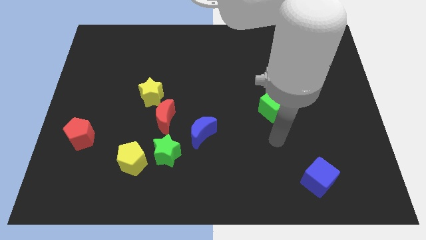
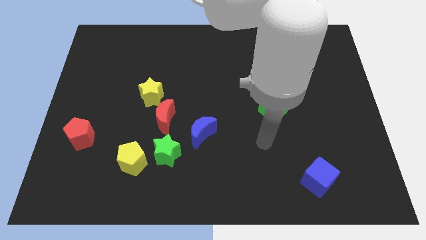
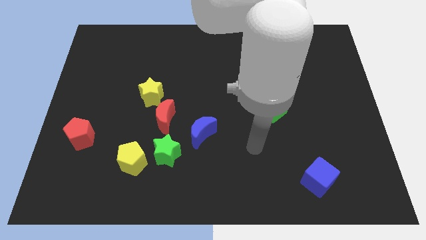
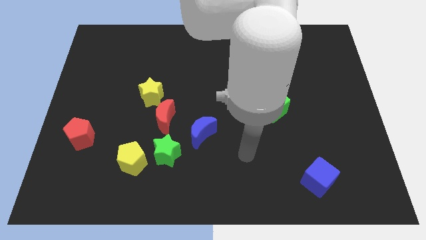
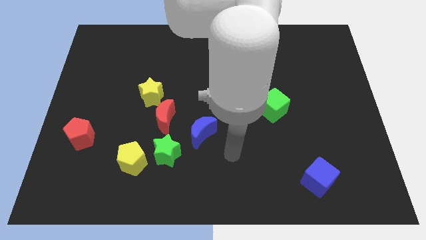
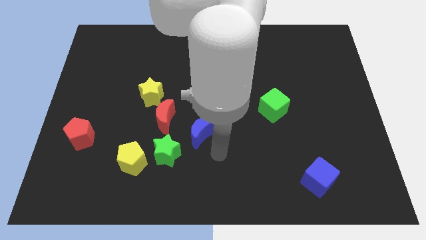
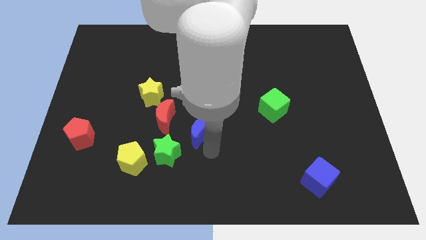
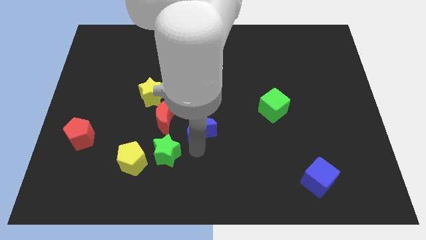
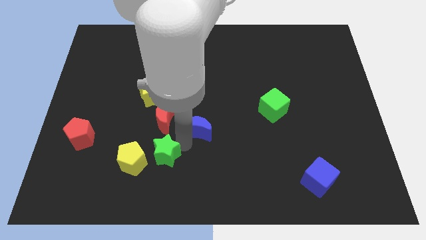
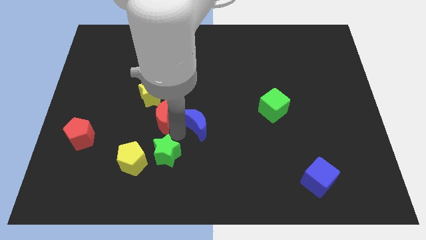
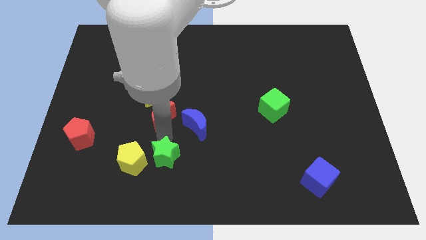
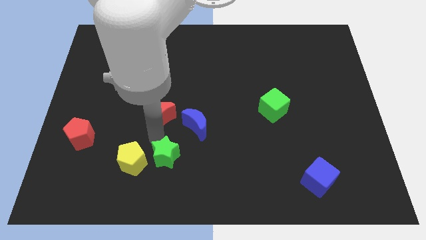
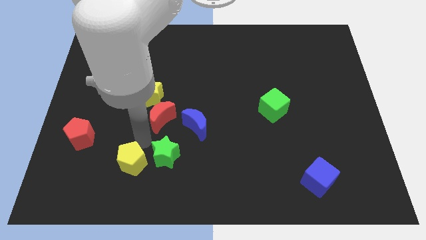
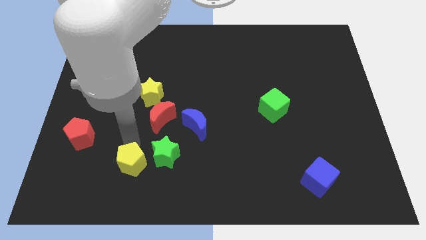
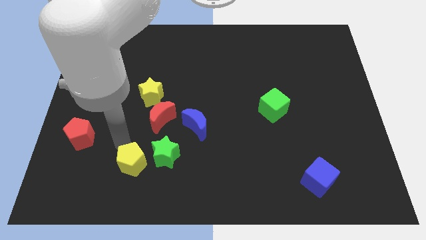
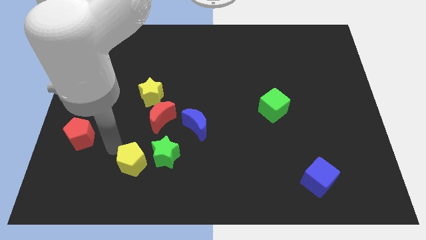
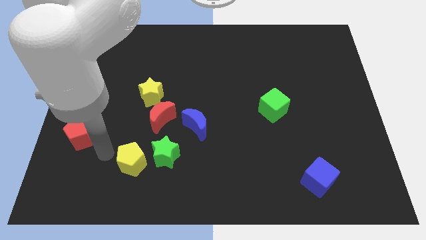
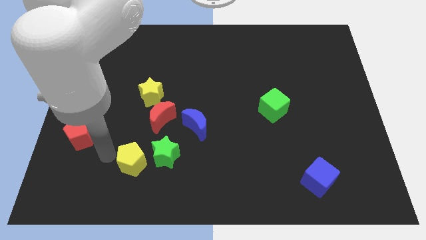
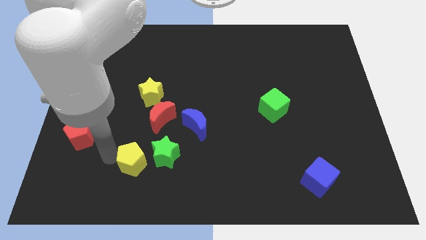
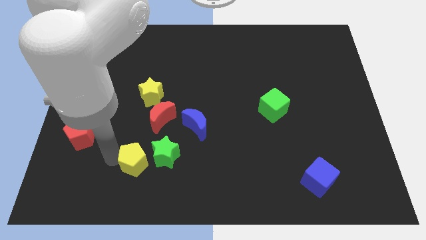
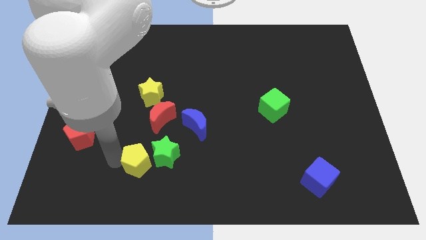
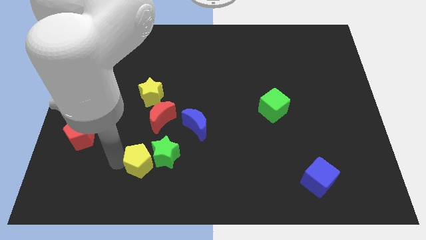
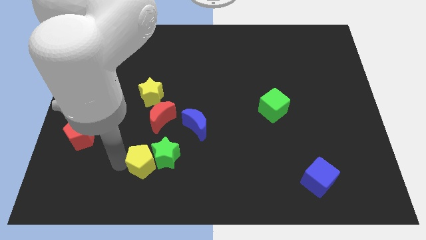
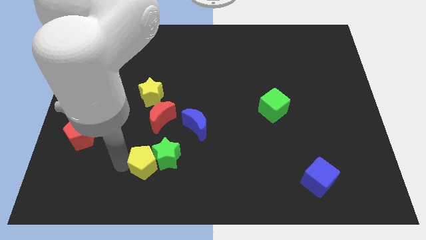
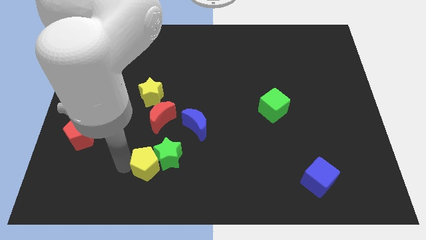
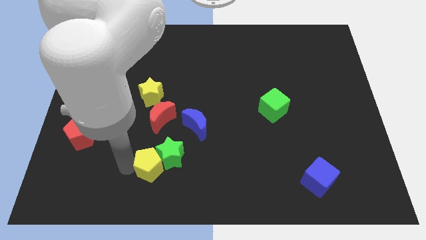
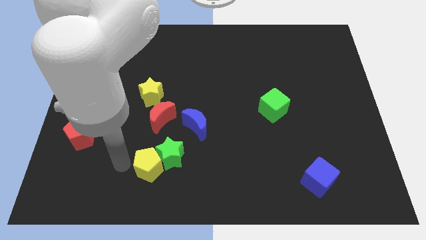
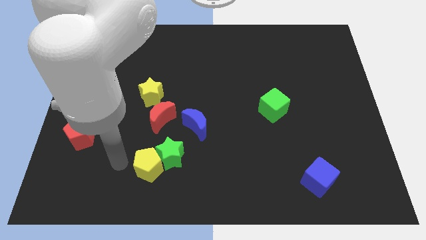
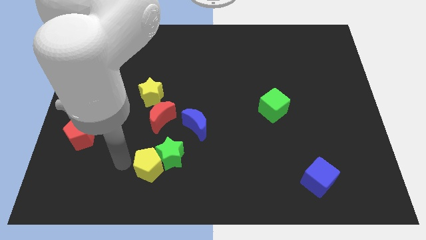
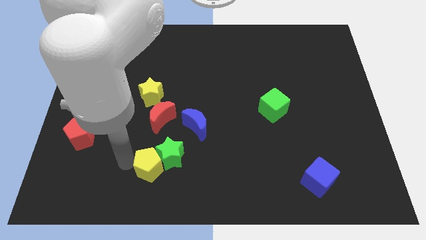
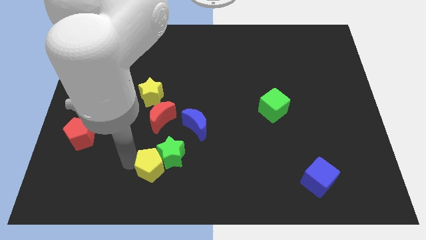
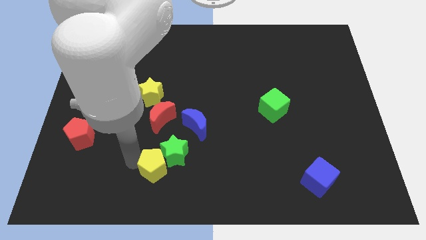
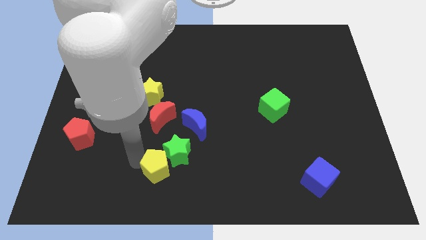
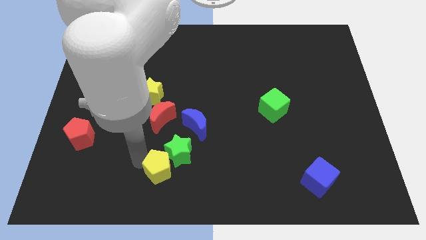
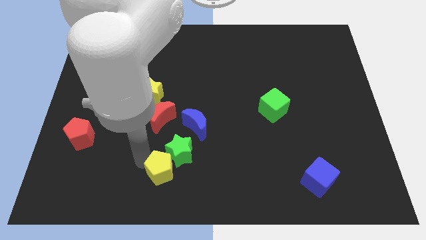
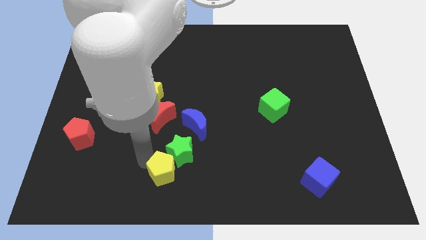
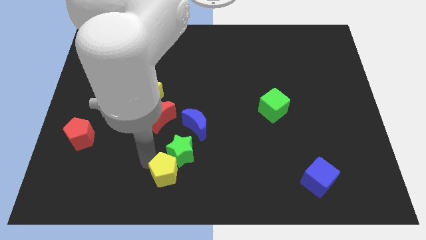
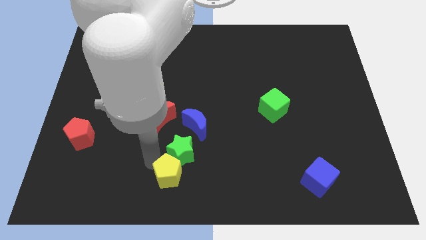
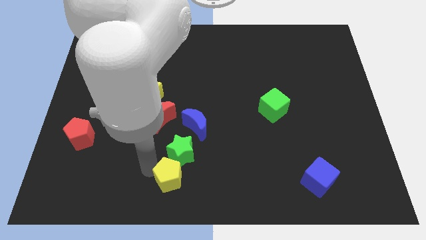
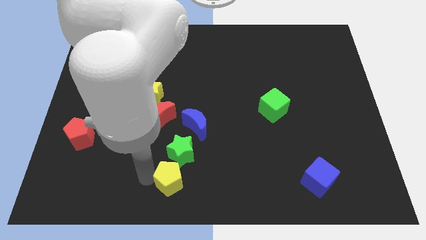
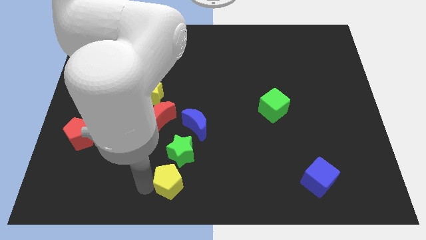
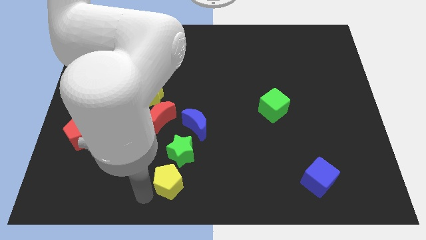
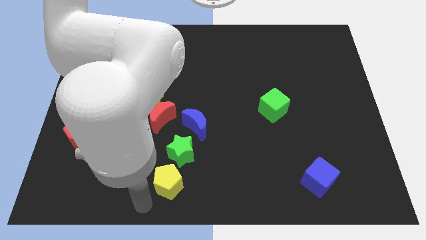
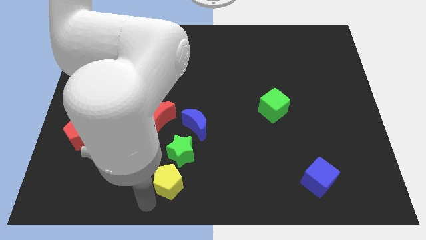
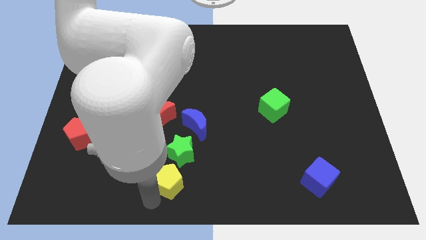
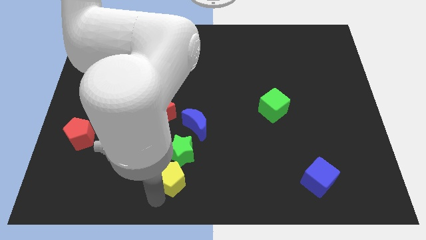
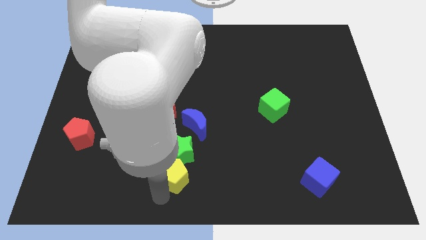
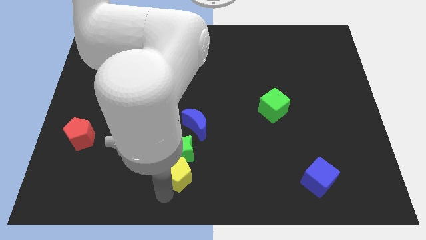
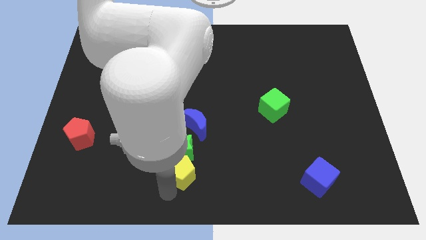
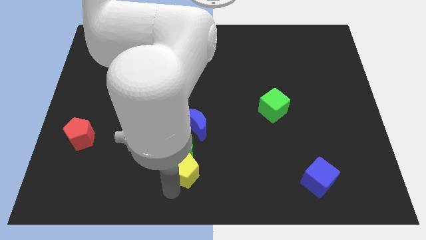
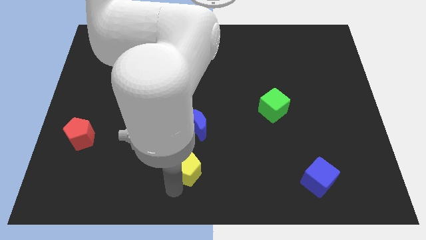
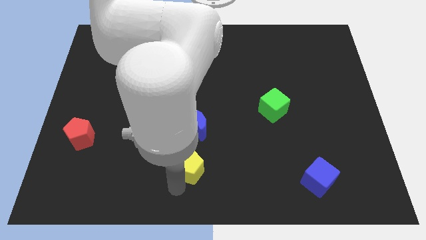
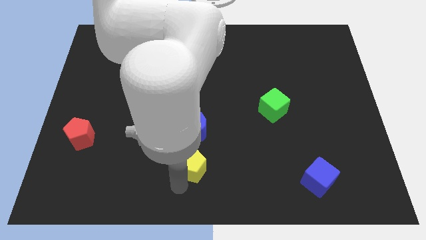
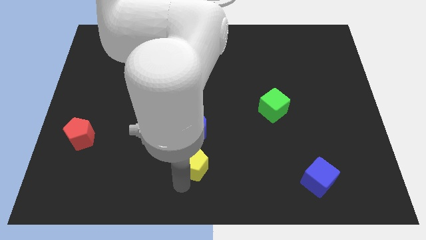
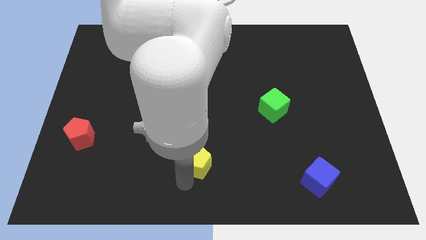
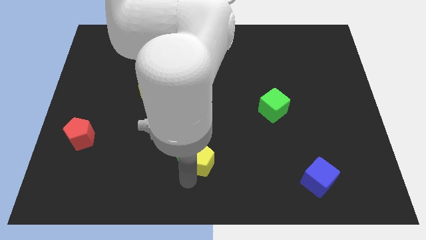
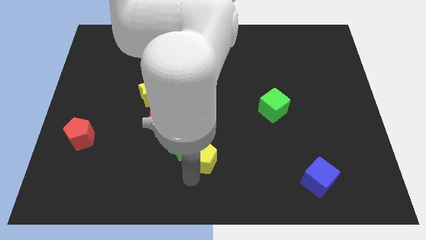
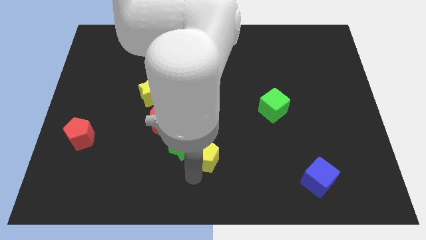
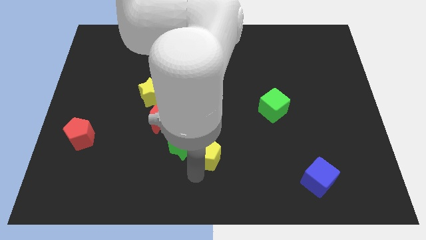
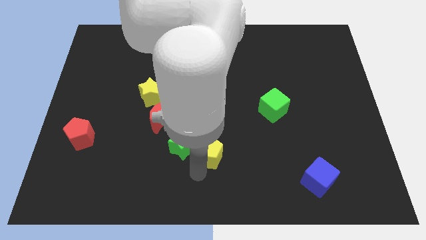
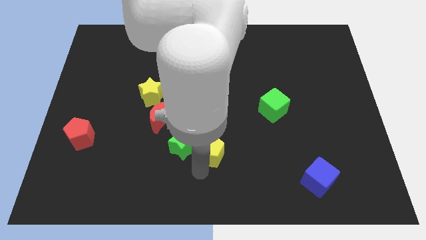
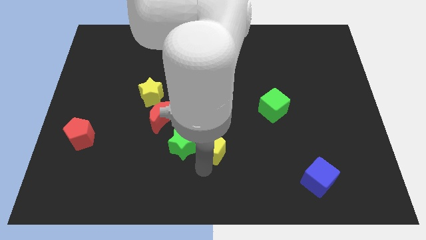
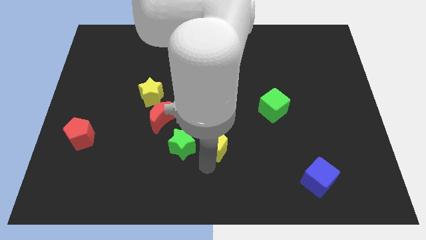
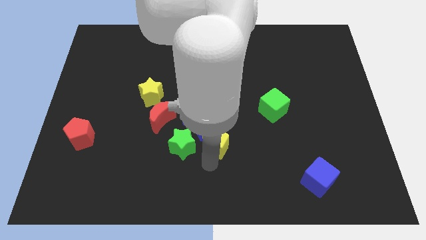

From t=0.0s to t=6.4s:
put the yellow pentagon to the center of the board
